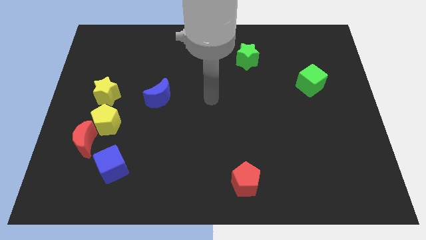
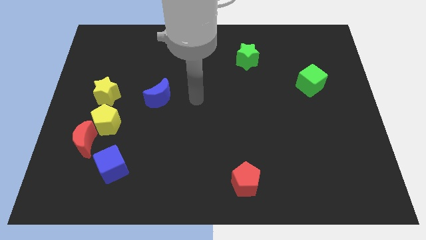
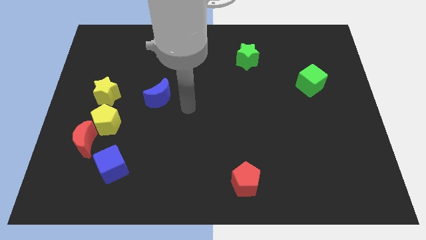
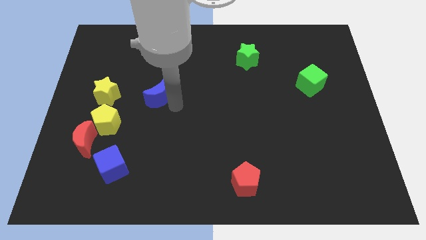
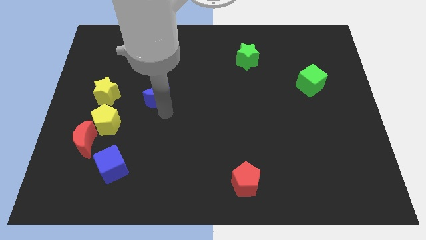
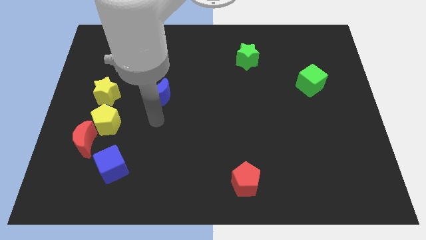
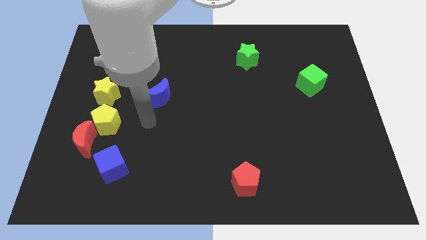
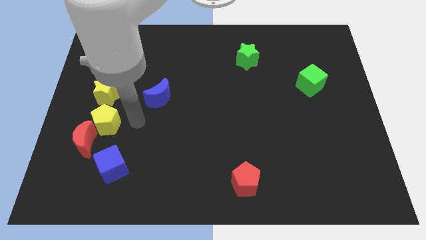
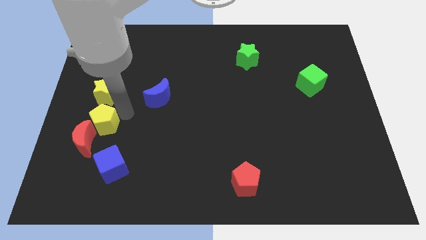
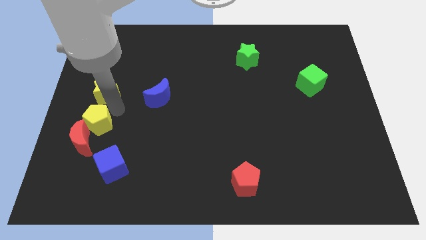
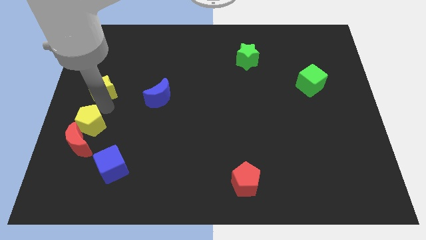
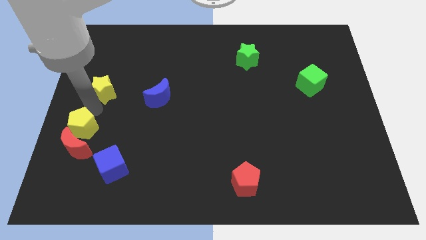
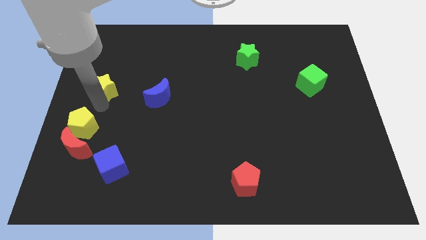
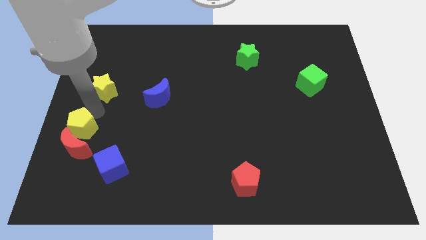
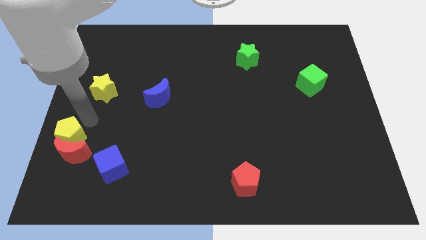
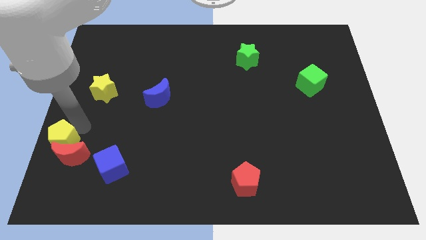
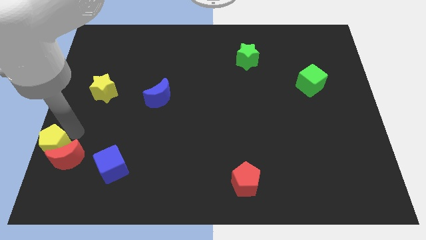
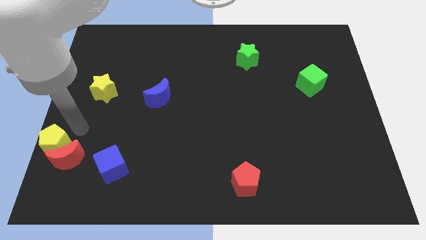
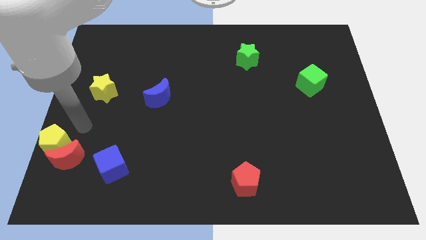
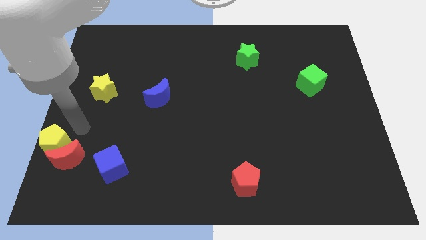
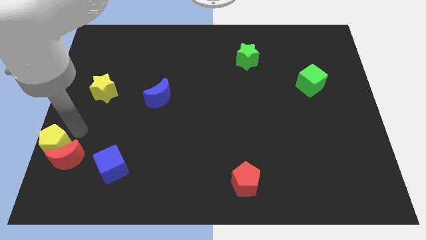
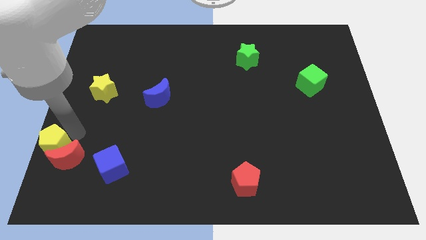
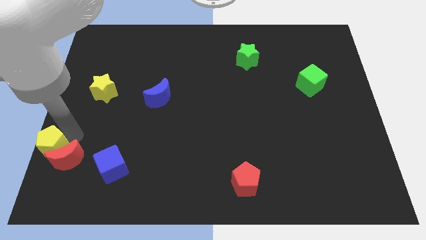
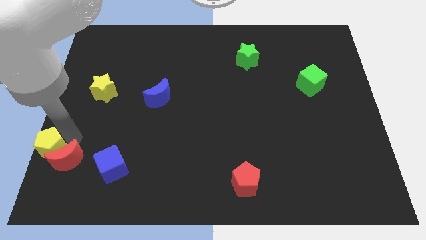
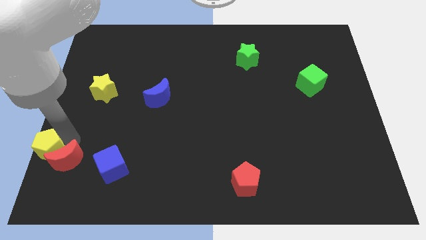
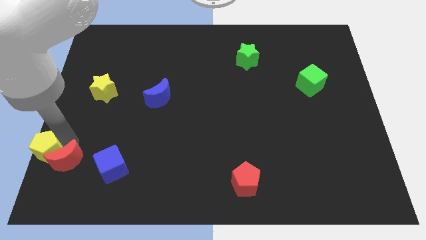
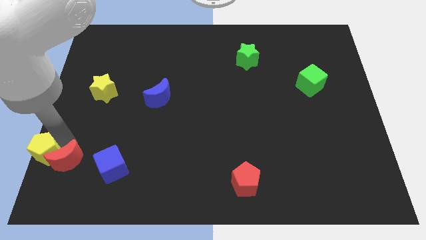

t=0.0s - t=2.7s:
separate the yellow pentagon from the red moon and yellow star

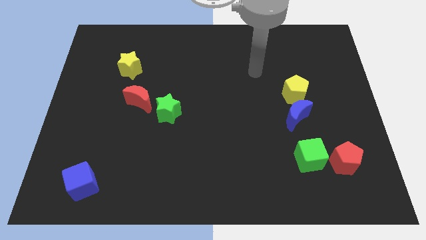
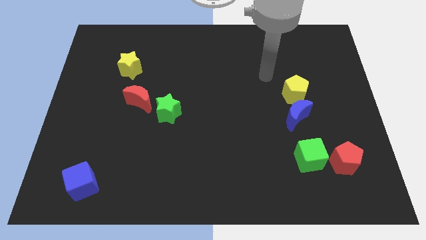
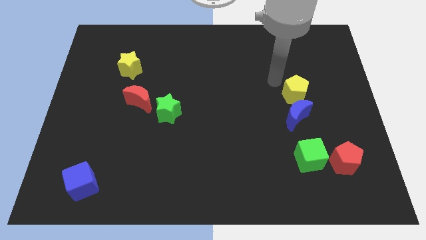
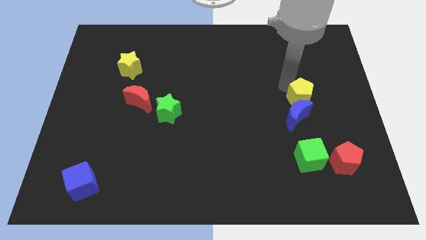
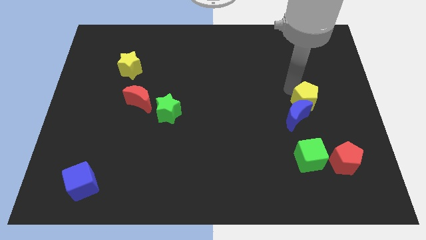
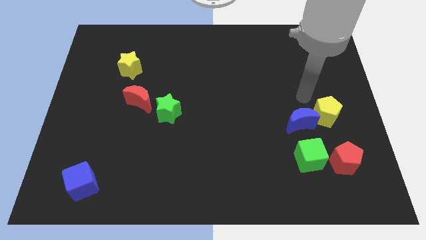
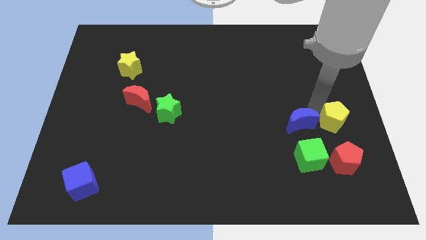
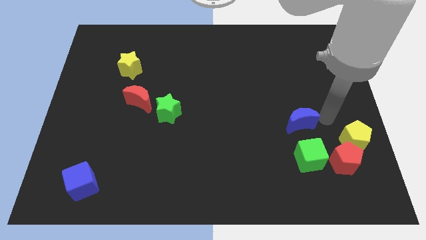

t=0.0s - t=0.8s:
pull the blue moon apart from the yellow pentagon

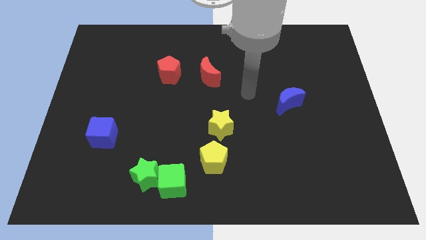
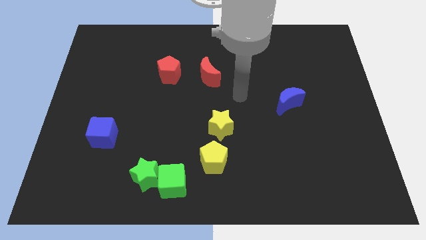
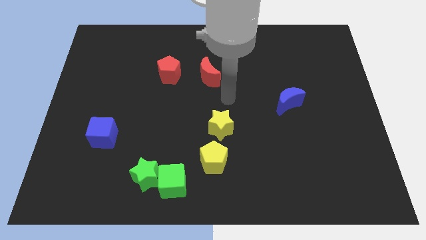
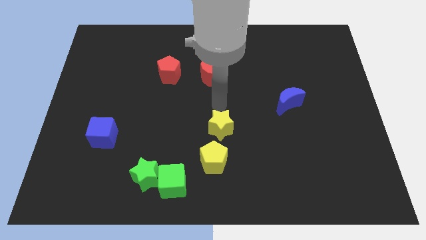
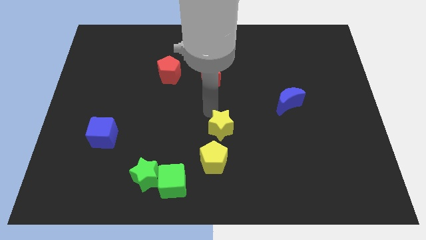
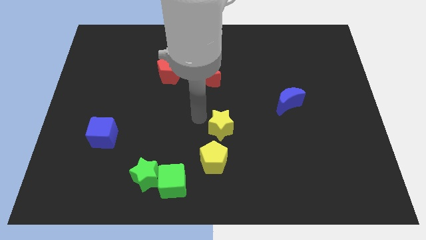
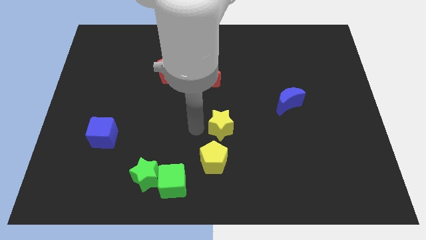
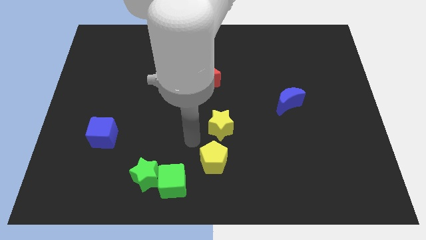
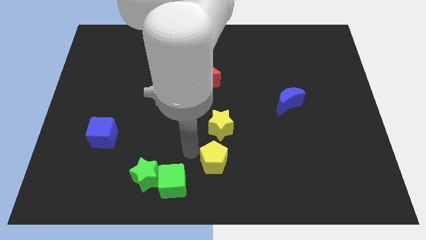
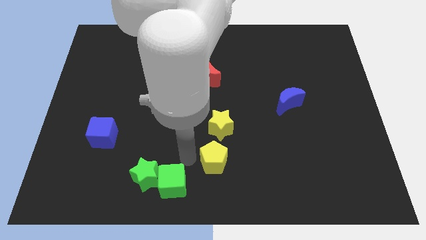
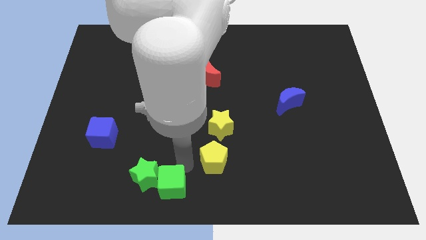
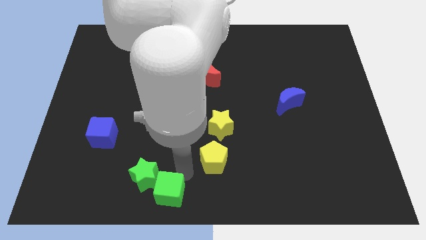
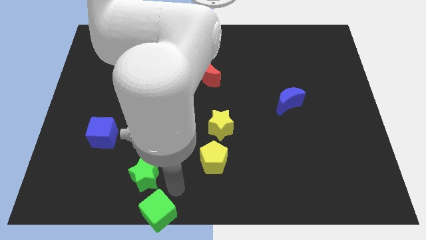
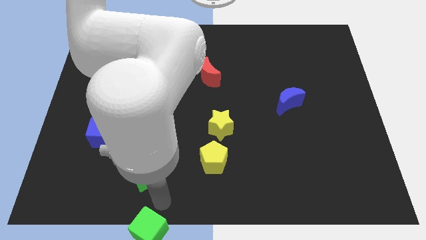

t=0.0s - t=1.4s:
move the green star away from the green cube

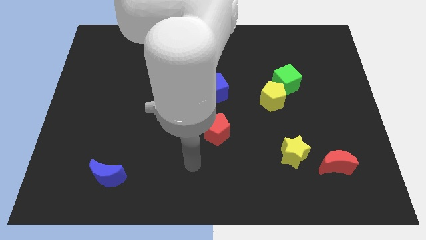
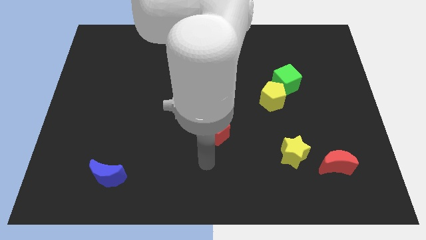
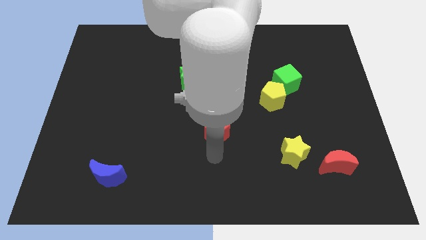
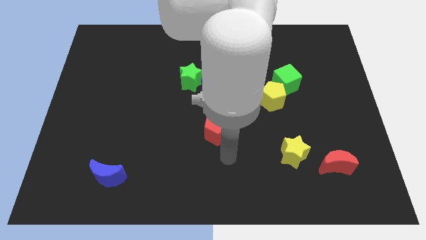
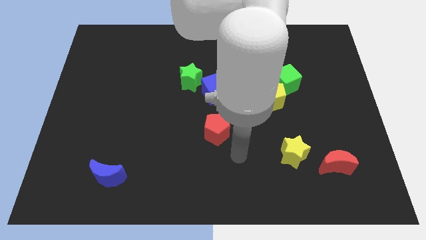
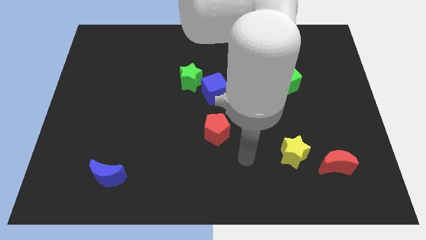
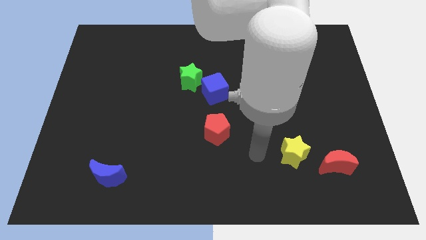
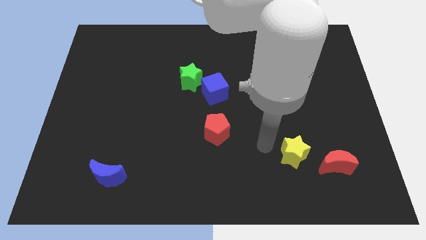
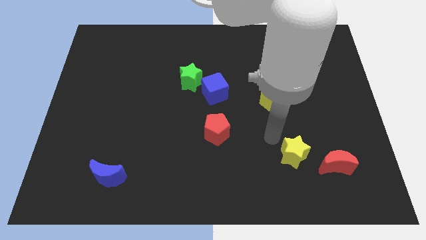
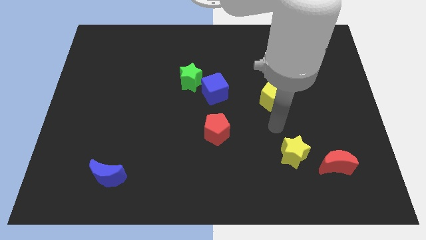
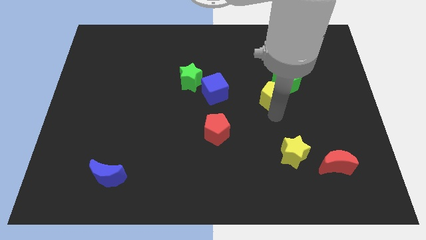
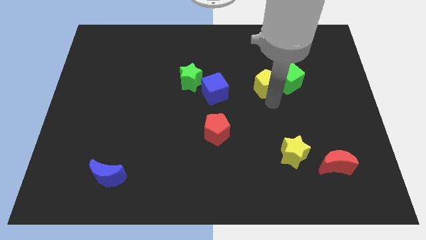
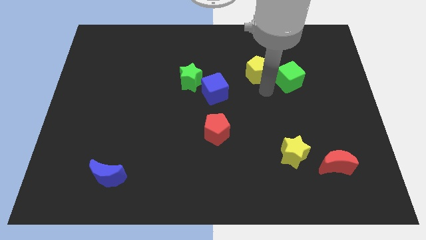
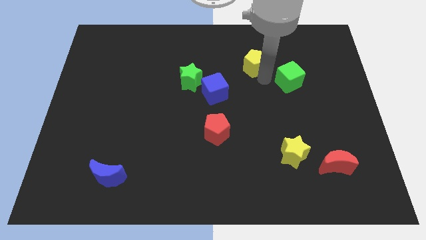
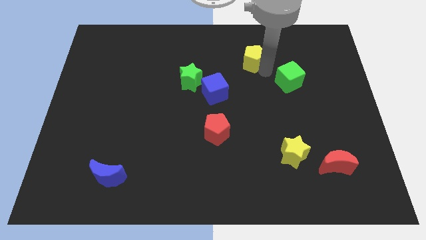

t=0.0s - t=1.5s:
pull the green cube apart from the yellow pentagon

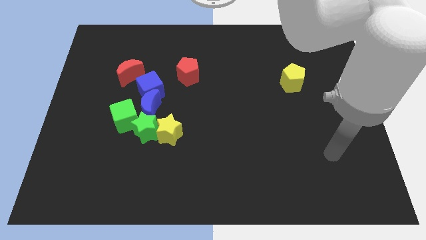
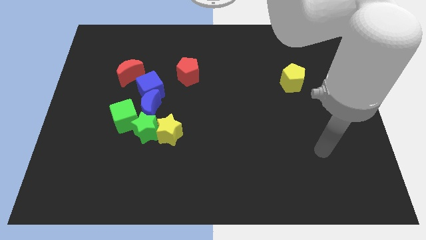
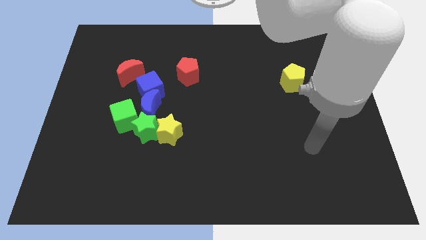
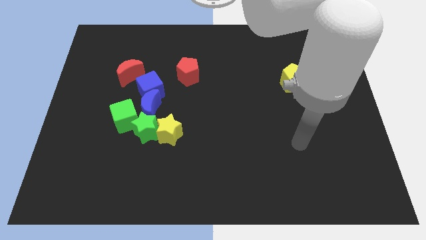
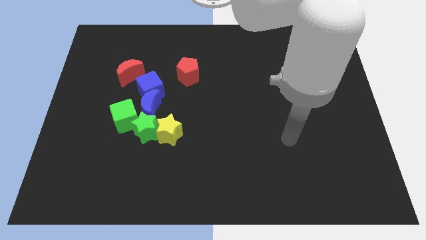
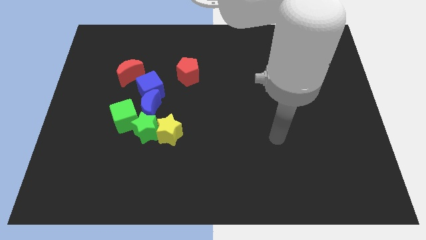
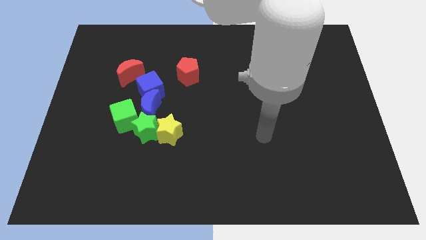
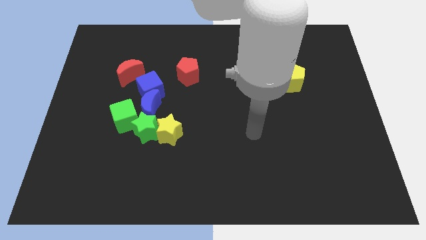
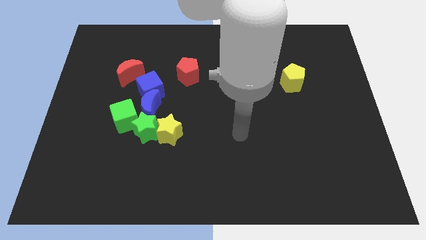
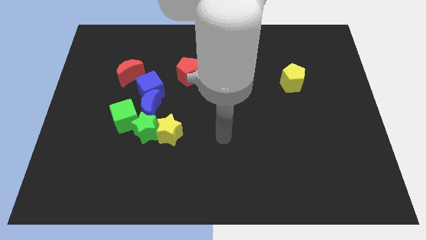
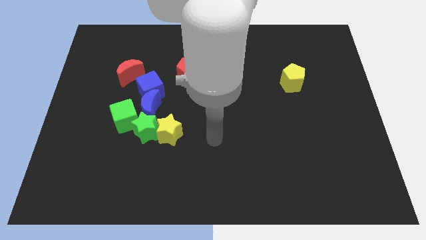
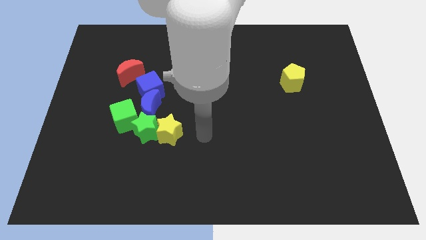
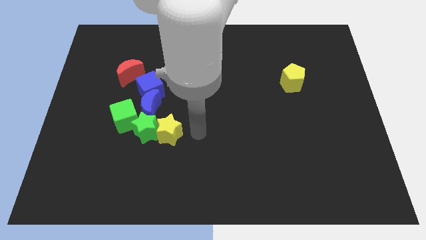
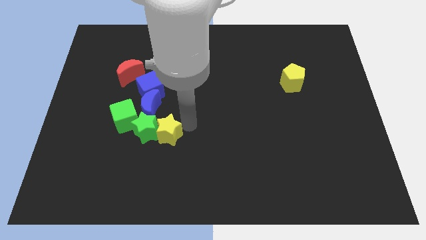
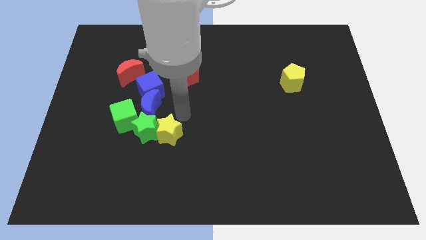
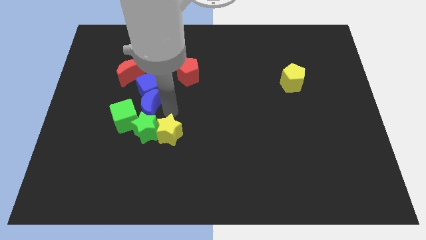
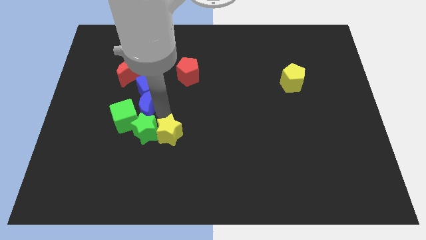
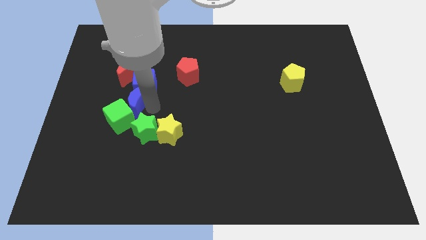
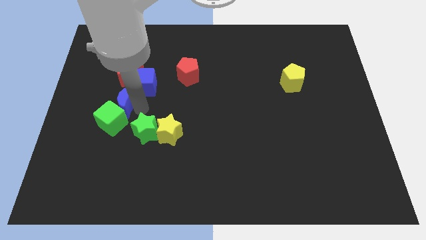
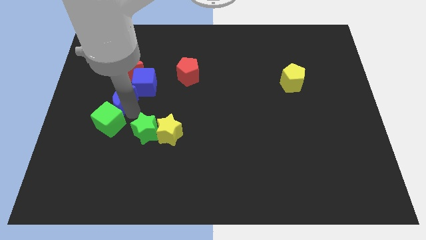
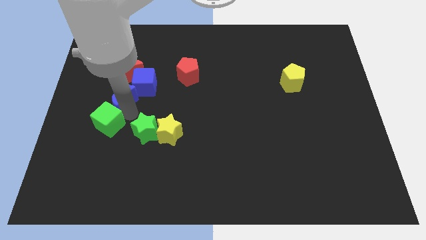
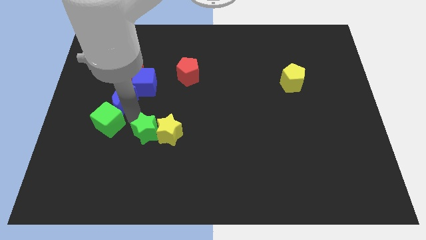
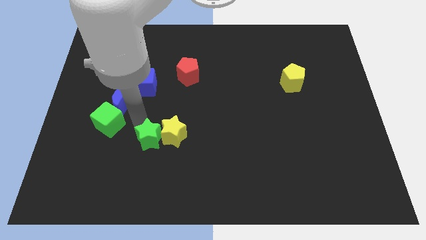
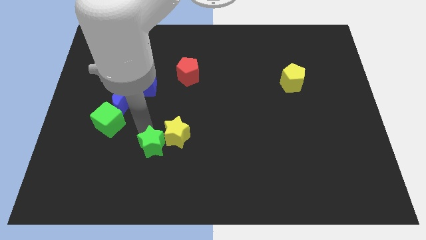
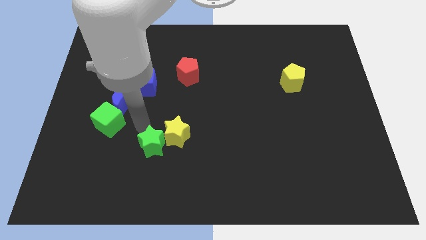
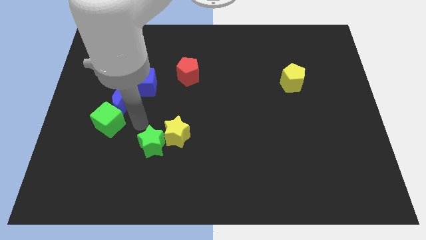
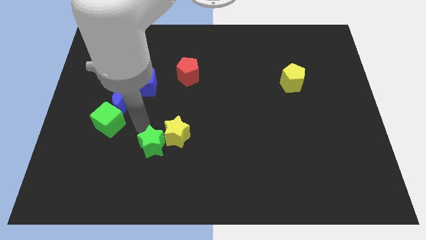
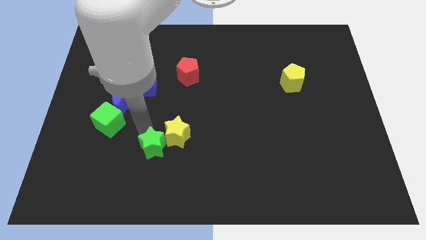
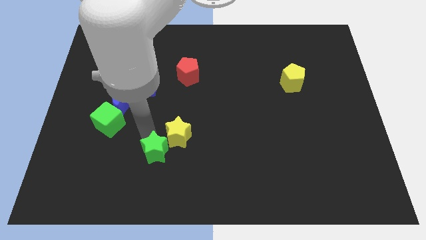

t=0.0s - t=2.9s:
pull the green star apart from the yellow star, blue moon, and green cube
